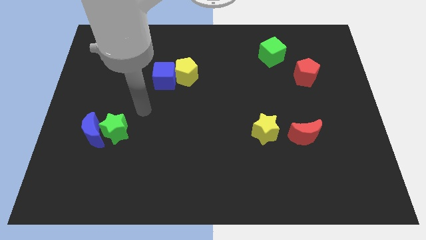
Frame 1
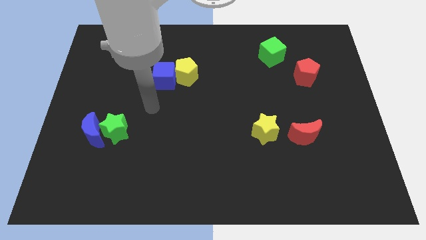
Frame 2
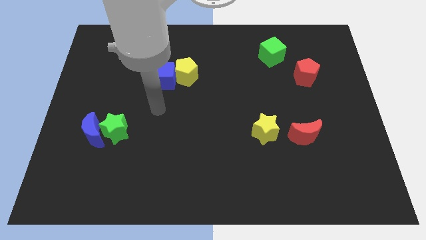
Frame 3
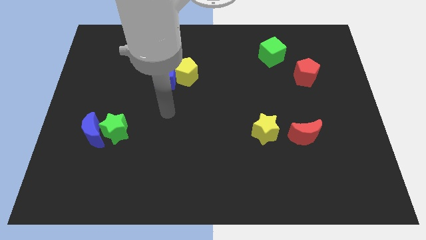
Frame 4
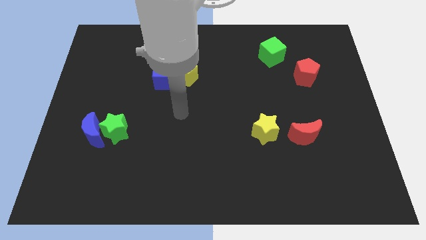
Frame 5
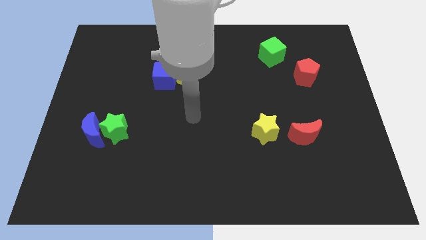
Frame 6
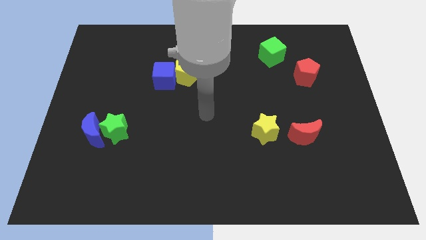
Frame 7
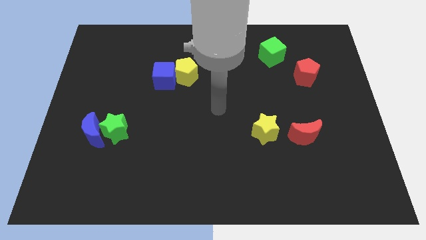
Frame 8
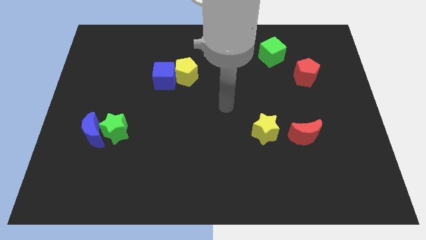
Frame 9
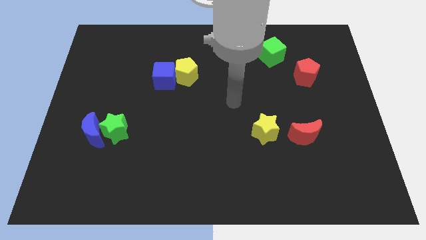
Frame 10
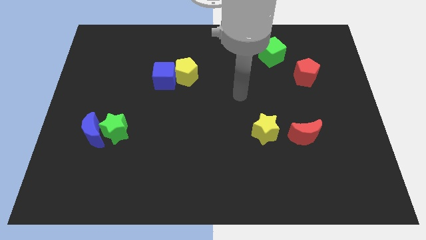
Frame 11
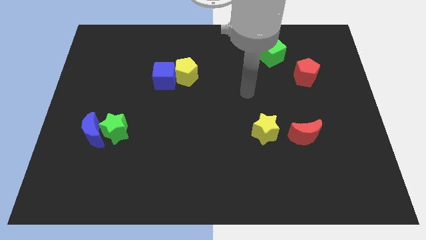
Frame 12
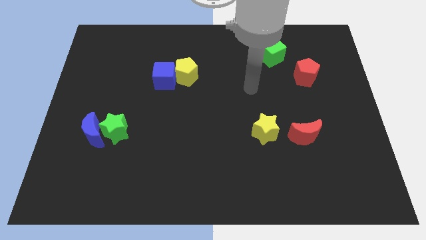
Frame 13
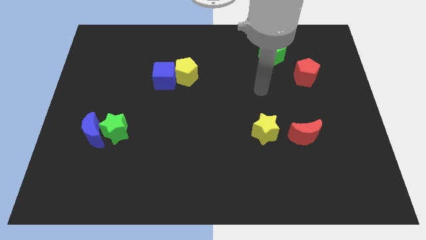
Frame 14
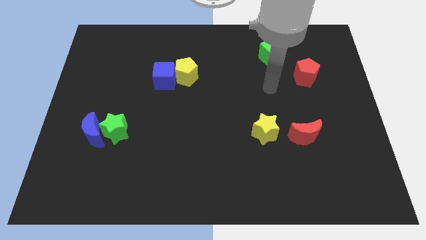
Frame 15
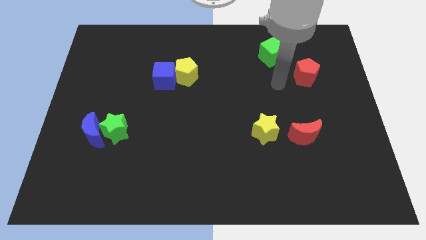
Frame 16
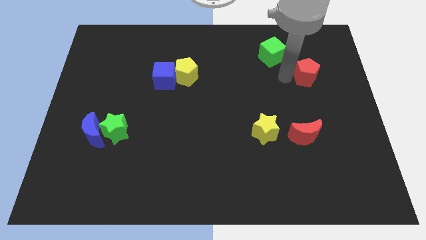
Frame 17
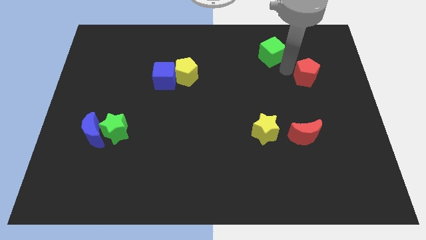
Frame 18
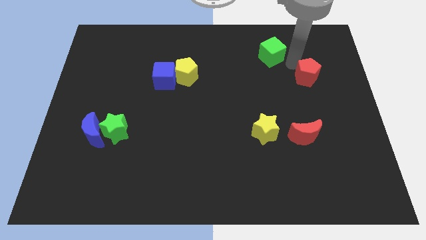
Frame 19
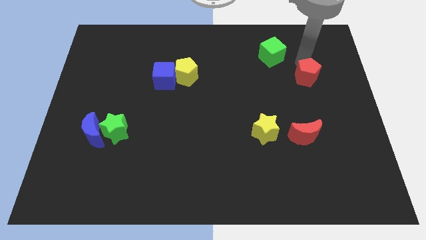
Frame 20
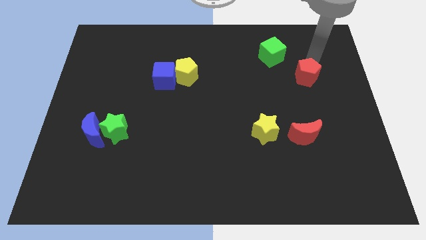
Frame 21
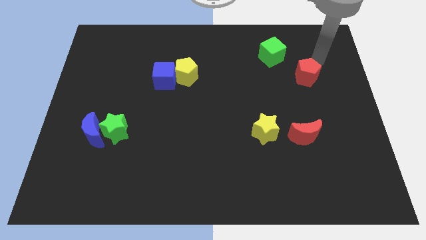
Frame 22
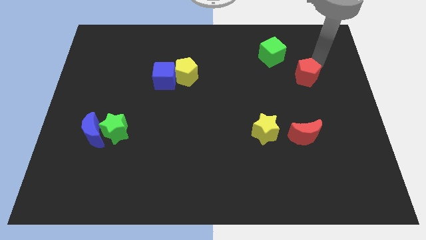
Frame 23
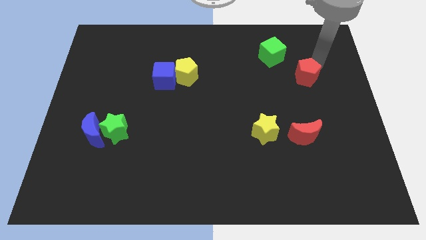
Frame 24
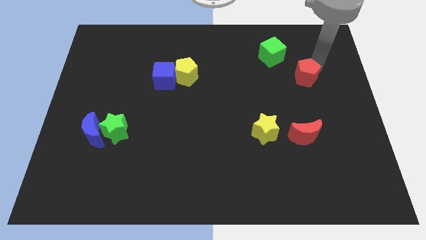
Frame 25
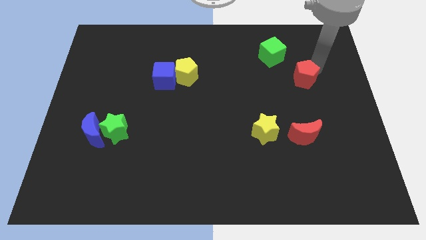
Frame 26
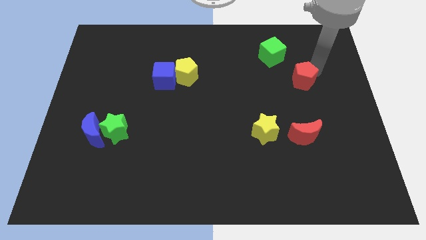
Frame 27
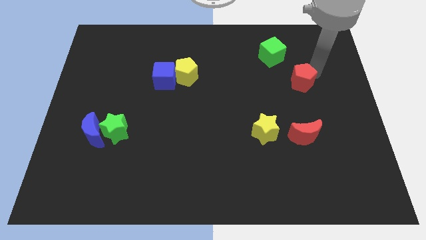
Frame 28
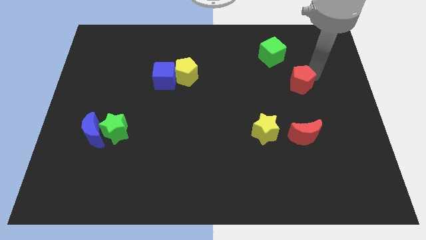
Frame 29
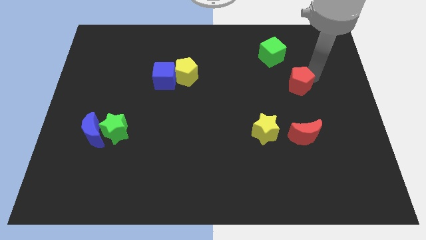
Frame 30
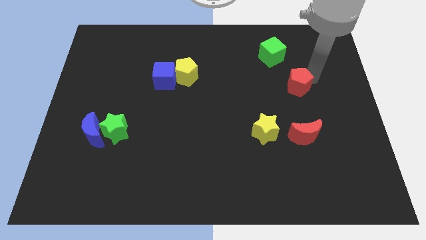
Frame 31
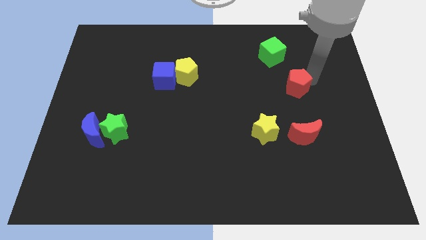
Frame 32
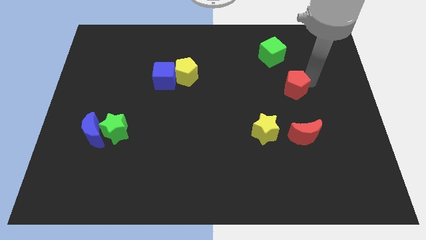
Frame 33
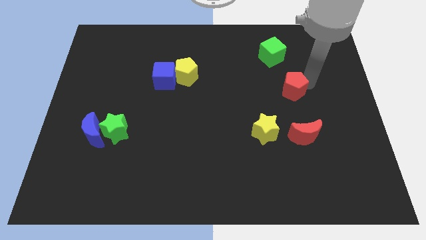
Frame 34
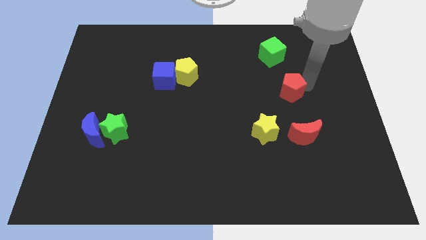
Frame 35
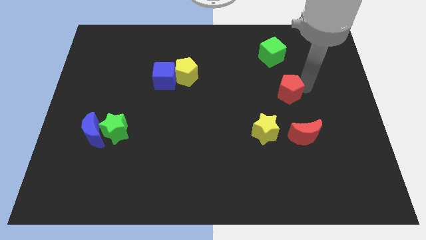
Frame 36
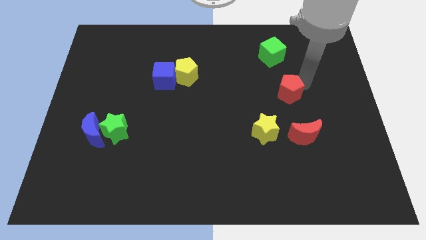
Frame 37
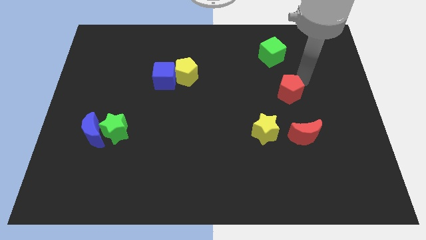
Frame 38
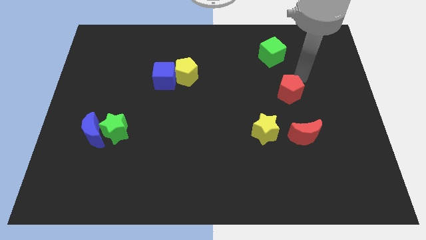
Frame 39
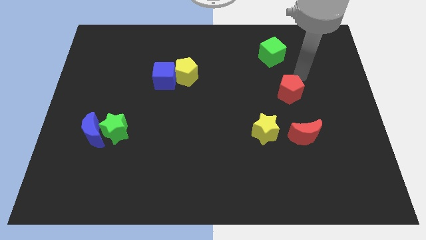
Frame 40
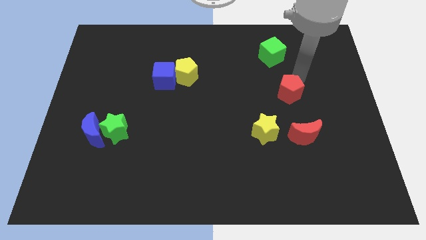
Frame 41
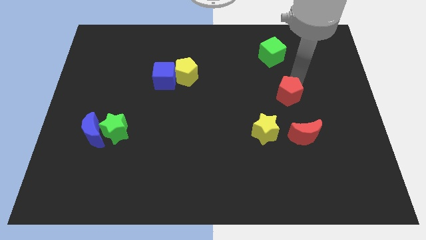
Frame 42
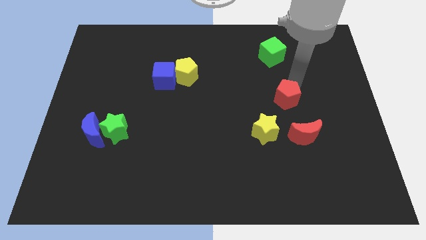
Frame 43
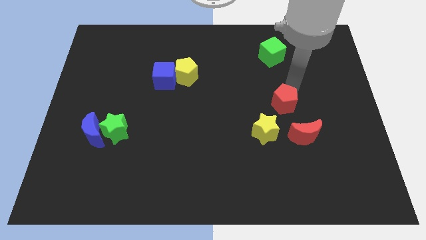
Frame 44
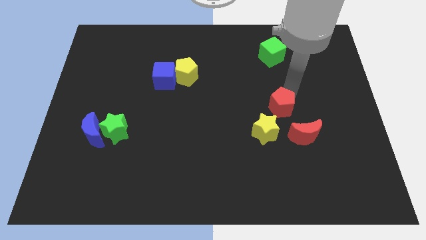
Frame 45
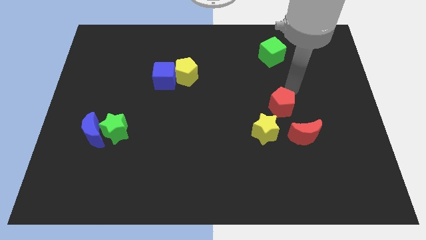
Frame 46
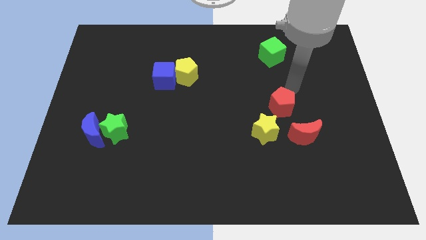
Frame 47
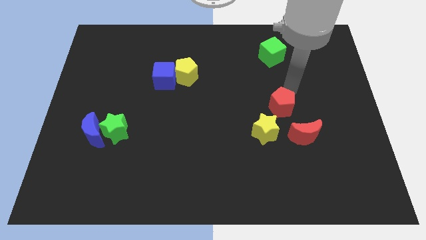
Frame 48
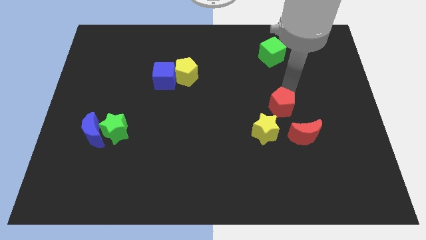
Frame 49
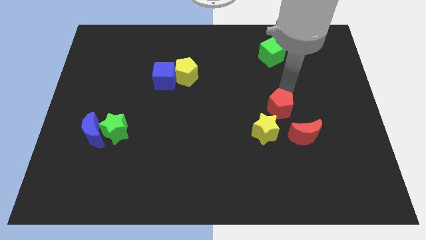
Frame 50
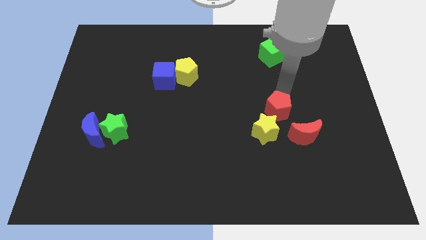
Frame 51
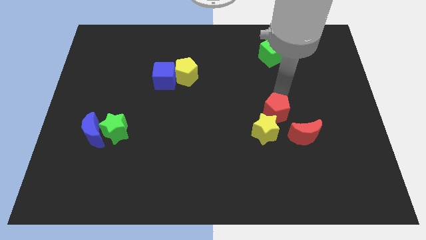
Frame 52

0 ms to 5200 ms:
slide the red pentagon next to the yellow star

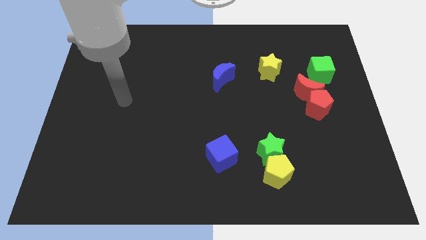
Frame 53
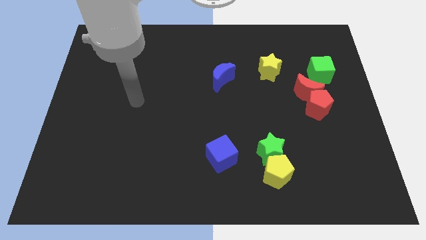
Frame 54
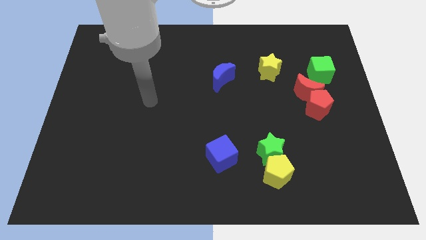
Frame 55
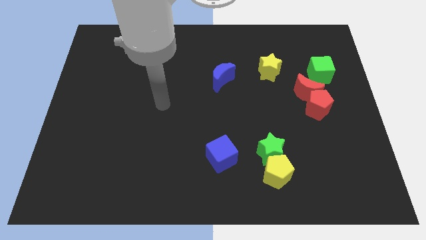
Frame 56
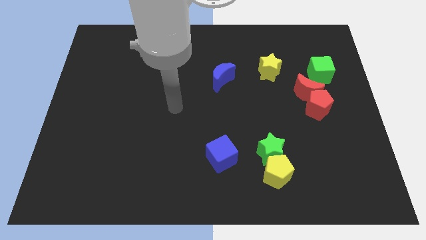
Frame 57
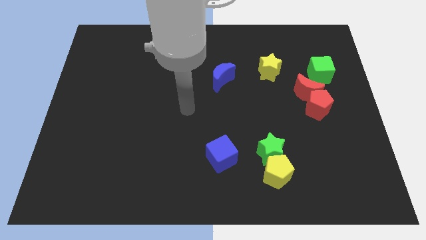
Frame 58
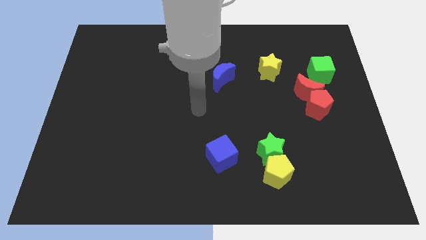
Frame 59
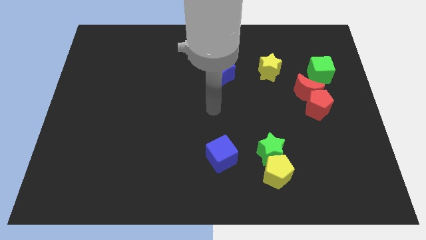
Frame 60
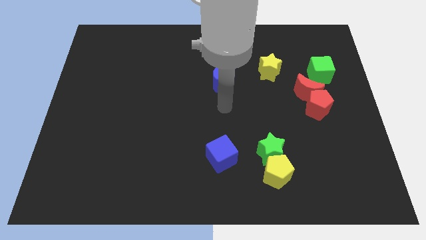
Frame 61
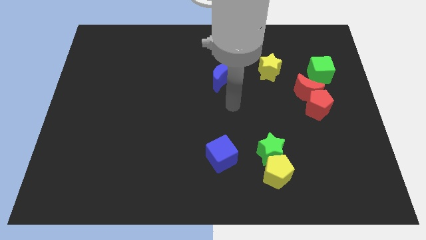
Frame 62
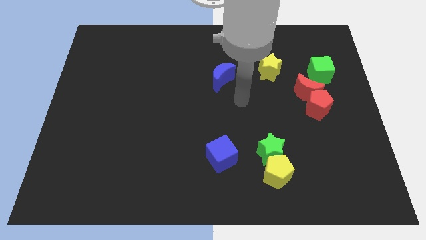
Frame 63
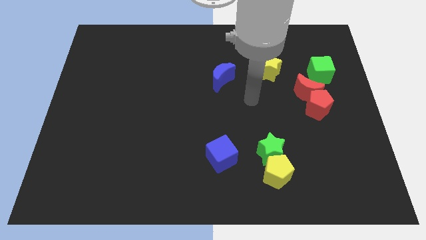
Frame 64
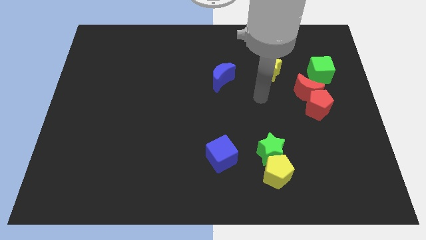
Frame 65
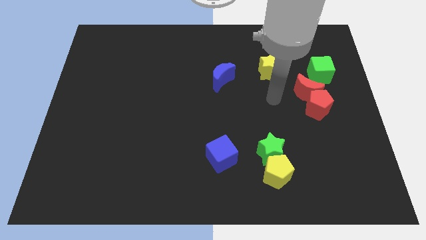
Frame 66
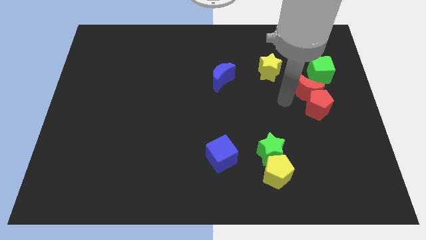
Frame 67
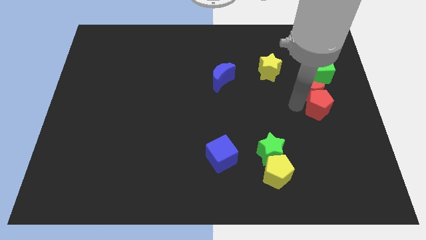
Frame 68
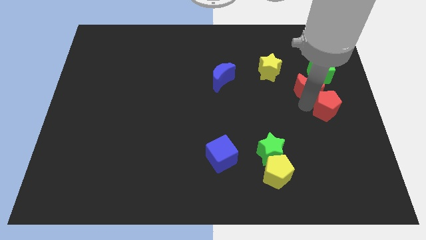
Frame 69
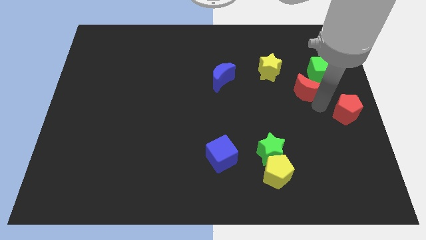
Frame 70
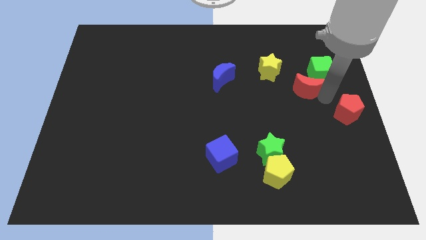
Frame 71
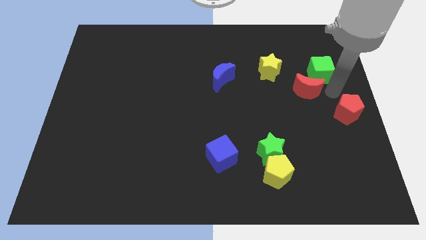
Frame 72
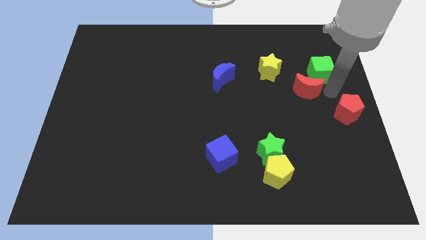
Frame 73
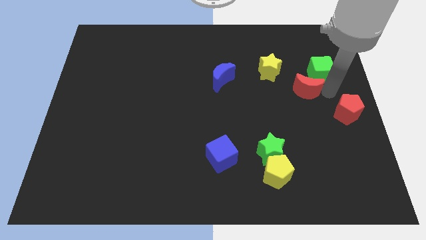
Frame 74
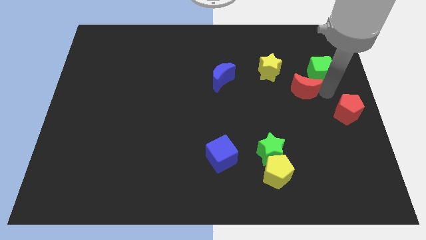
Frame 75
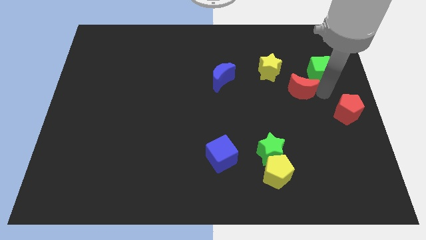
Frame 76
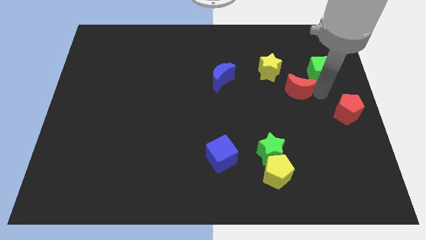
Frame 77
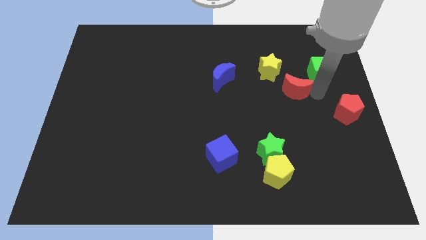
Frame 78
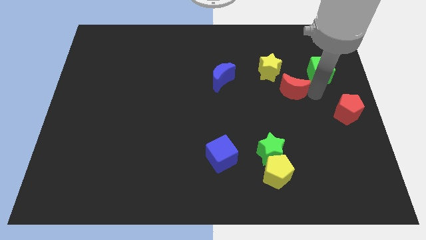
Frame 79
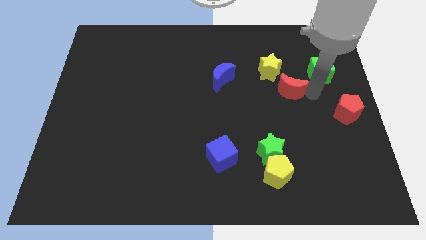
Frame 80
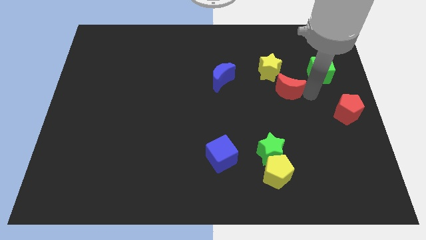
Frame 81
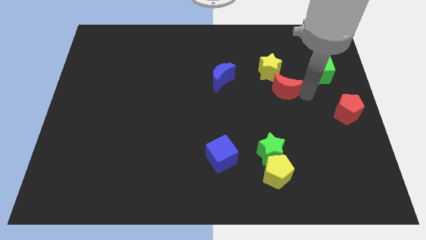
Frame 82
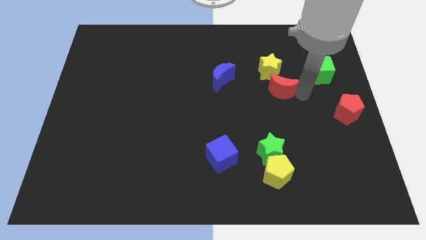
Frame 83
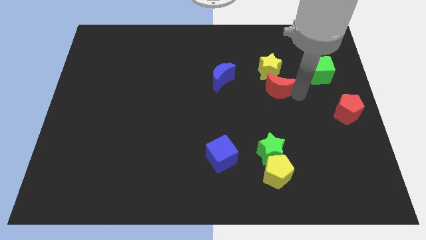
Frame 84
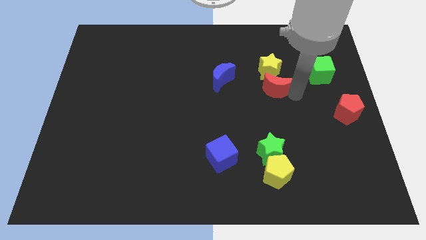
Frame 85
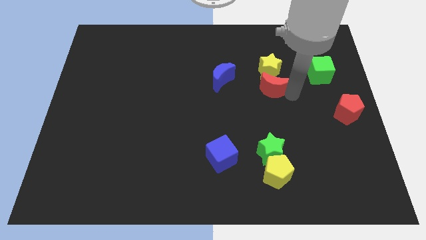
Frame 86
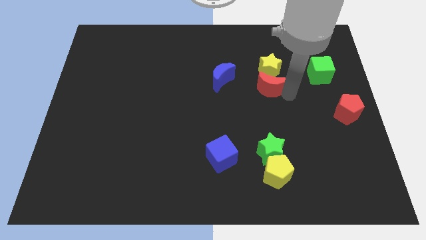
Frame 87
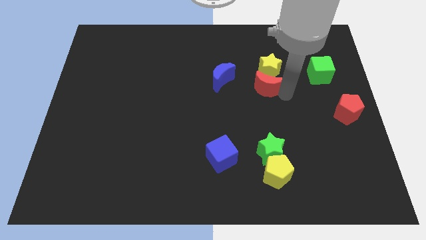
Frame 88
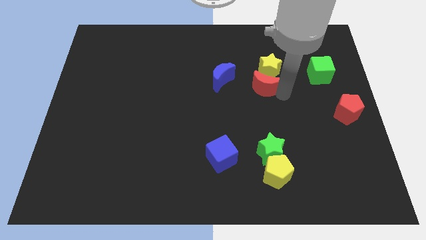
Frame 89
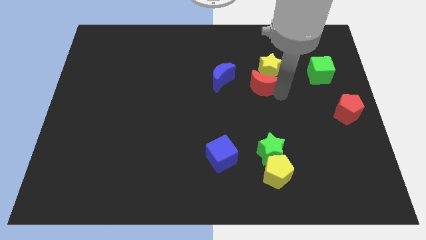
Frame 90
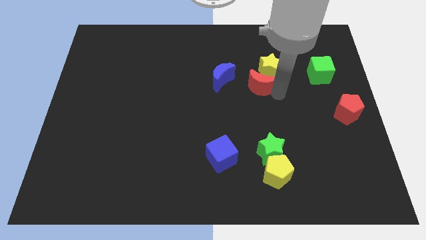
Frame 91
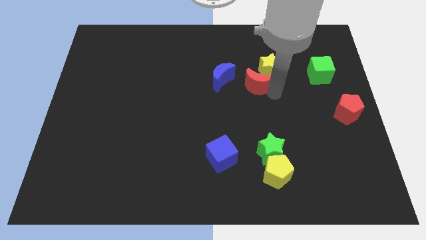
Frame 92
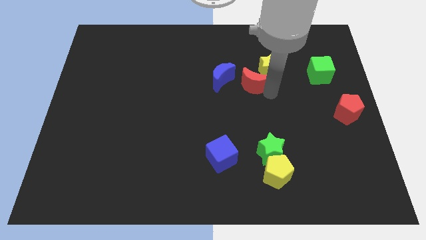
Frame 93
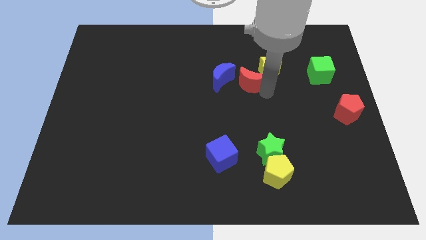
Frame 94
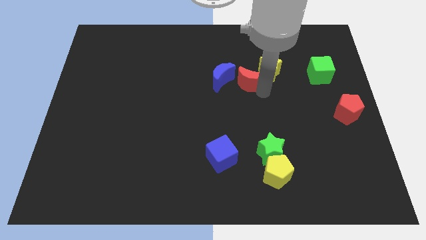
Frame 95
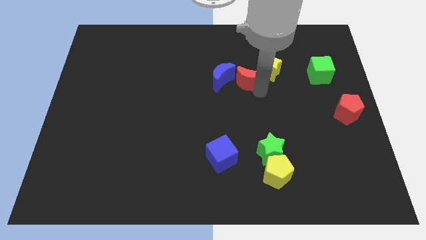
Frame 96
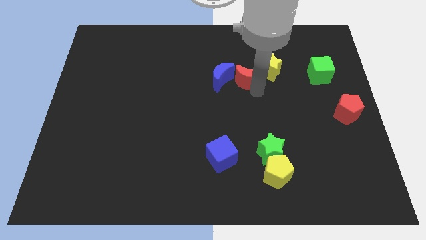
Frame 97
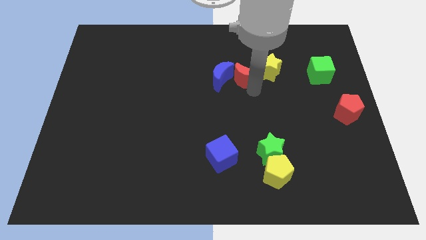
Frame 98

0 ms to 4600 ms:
slide the red moon close to the blue moon
